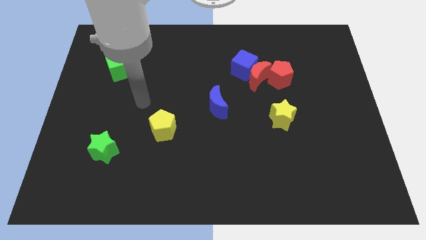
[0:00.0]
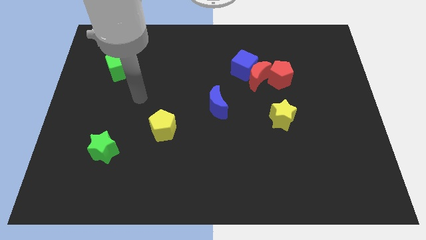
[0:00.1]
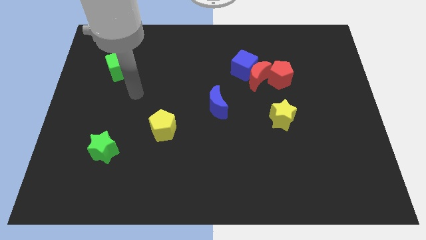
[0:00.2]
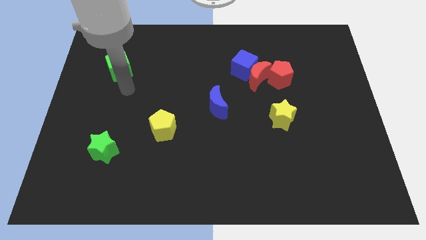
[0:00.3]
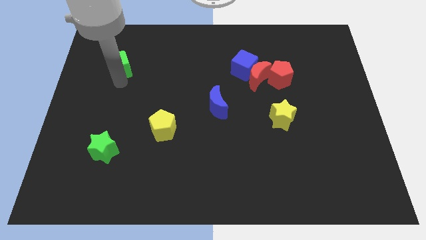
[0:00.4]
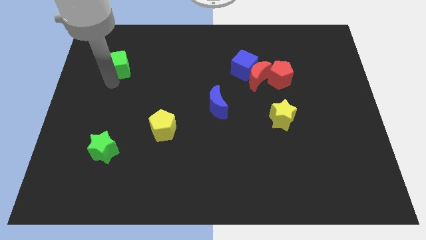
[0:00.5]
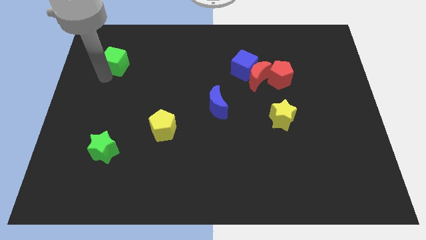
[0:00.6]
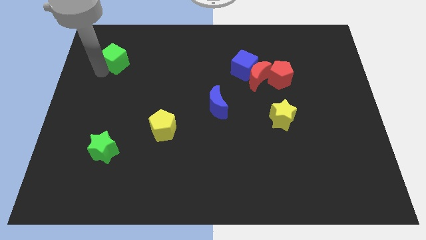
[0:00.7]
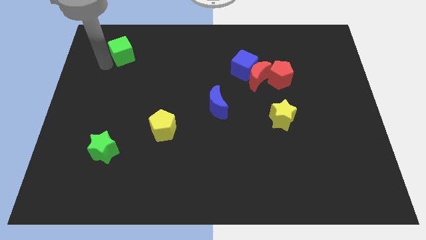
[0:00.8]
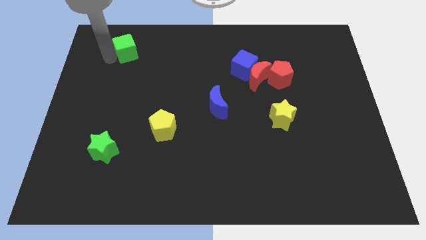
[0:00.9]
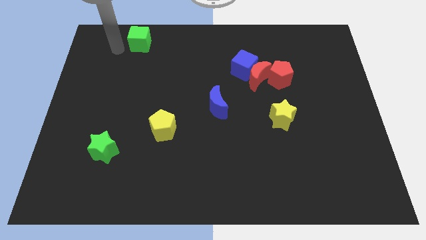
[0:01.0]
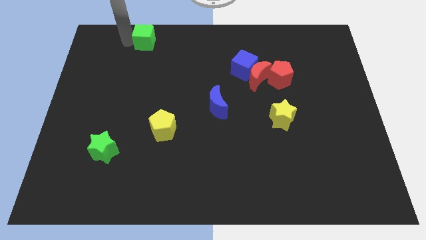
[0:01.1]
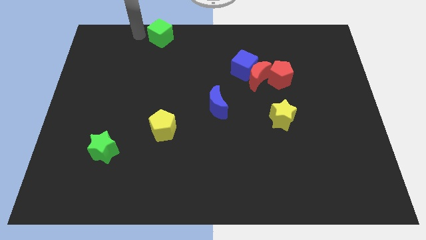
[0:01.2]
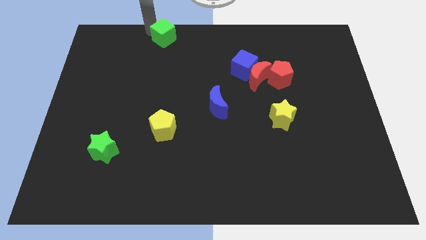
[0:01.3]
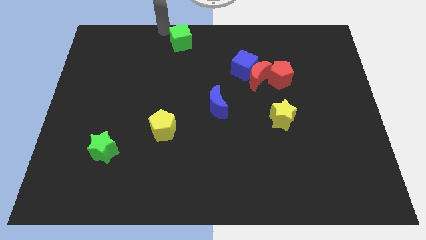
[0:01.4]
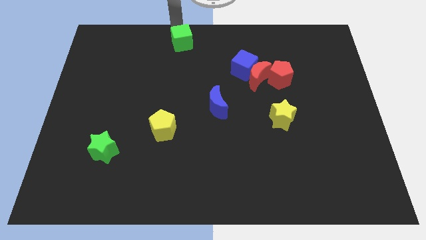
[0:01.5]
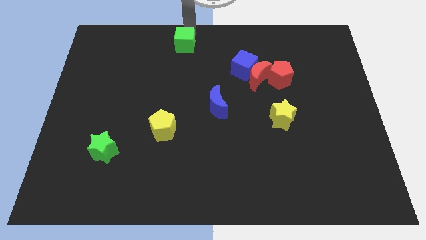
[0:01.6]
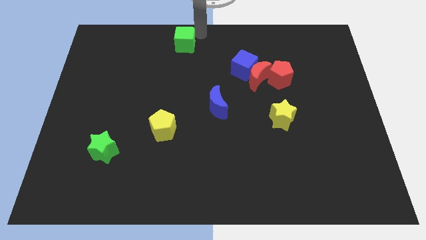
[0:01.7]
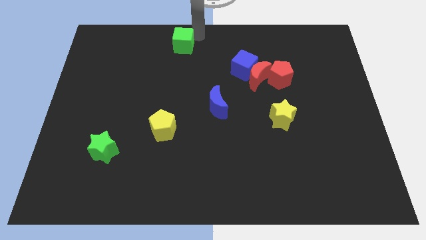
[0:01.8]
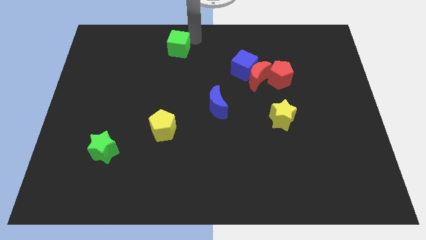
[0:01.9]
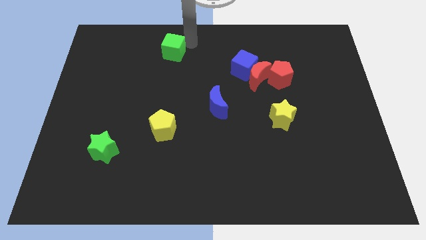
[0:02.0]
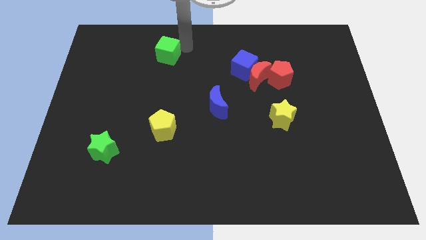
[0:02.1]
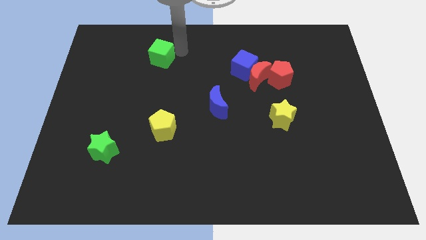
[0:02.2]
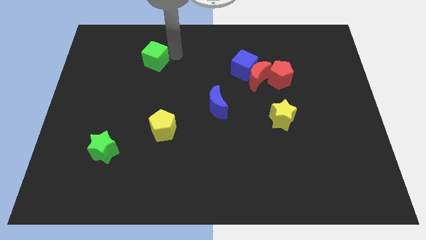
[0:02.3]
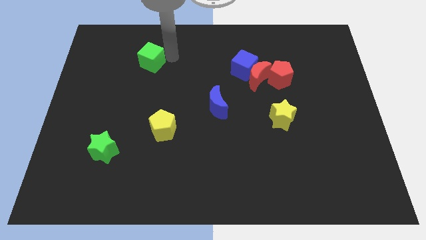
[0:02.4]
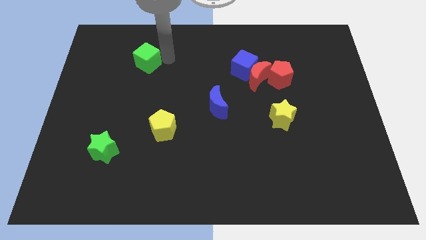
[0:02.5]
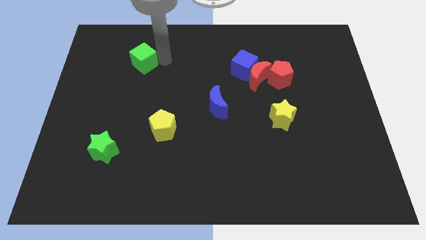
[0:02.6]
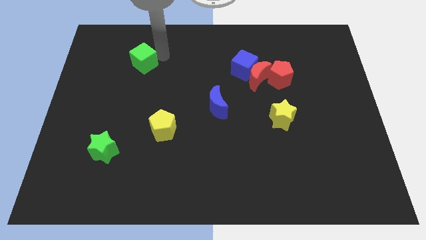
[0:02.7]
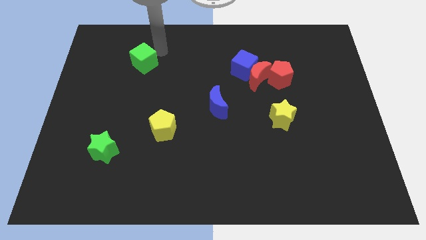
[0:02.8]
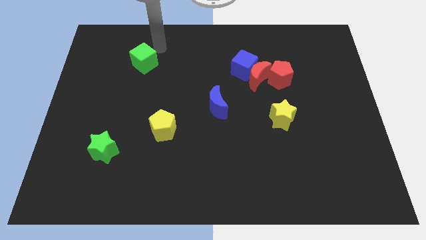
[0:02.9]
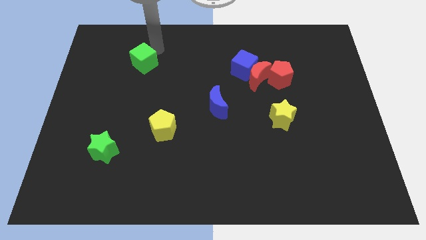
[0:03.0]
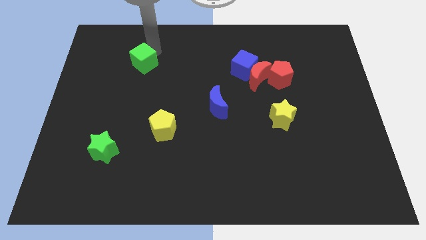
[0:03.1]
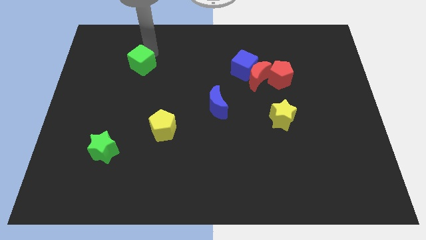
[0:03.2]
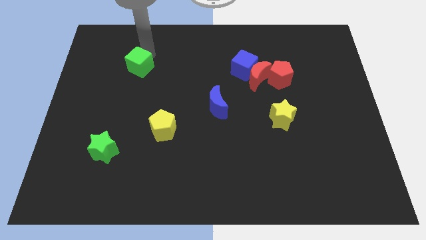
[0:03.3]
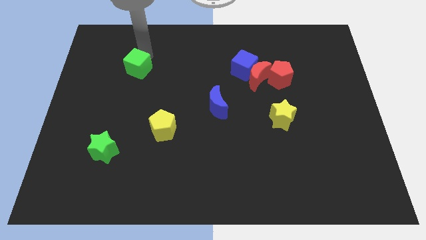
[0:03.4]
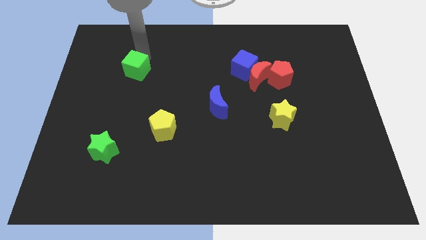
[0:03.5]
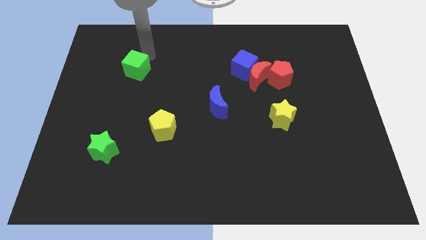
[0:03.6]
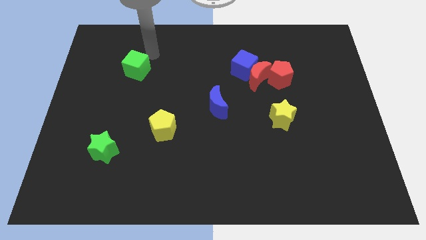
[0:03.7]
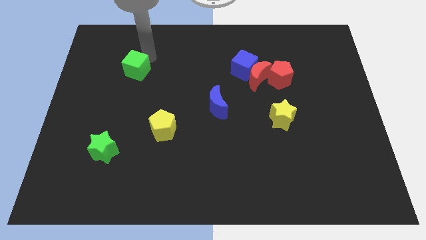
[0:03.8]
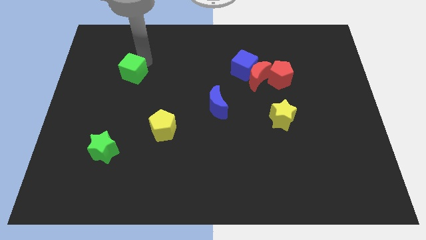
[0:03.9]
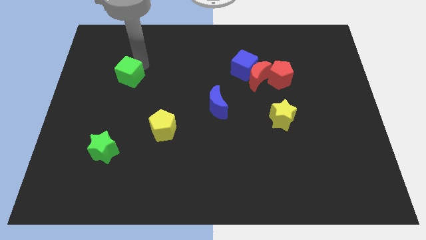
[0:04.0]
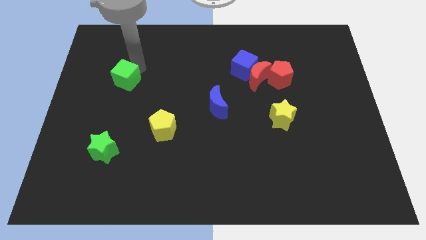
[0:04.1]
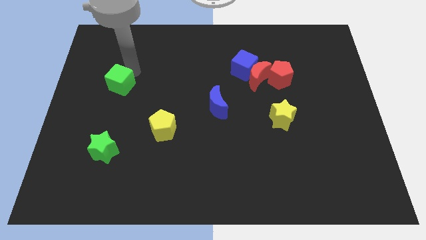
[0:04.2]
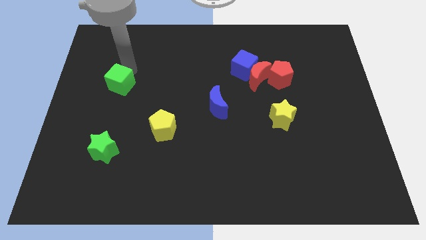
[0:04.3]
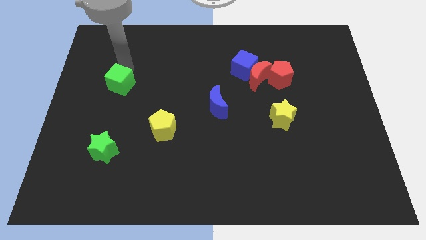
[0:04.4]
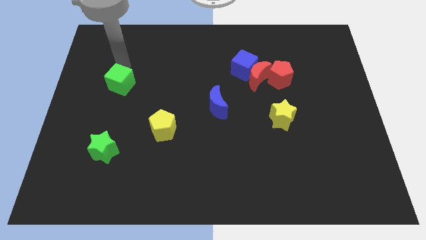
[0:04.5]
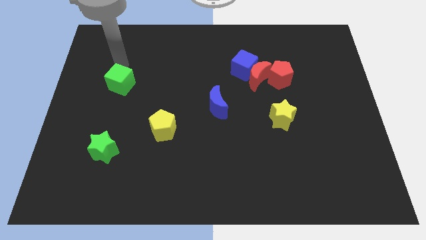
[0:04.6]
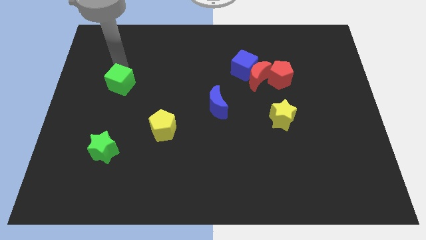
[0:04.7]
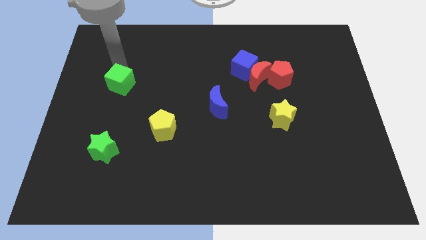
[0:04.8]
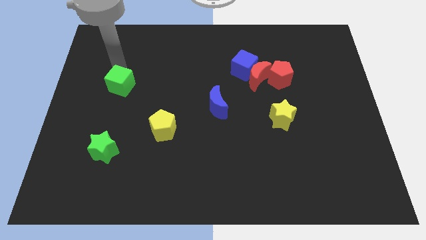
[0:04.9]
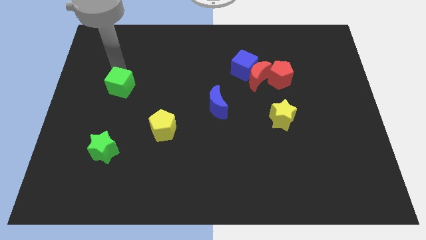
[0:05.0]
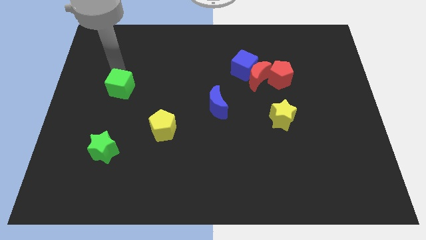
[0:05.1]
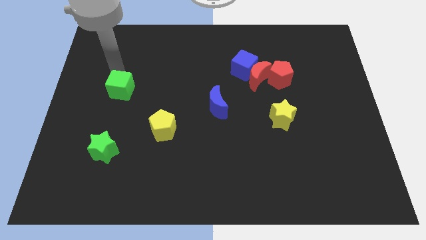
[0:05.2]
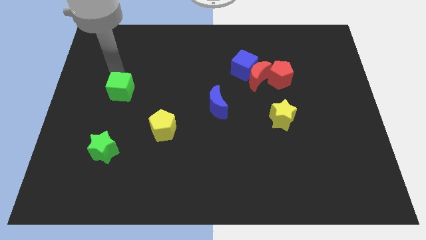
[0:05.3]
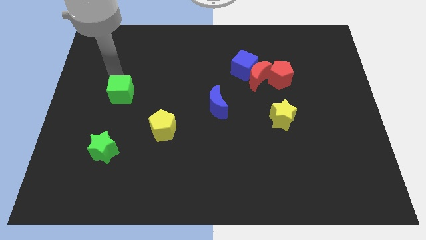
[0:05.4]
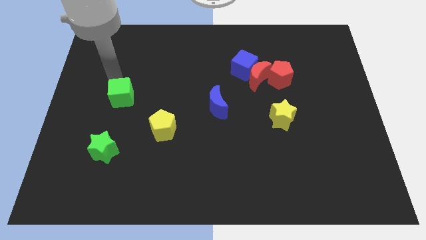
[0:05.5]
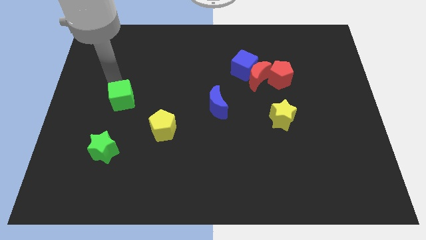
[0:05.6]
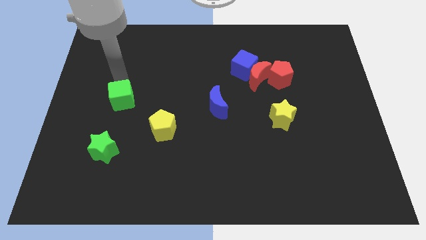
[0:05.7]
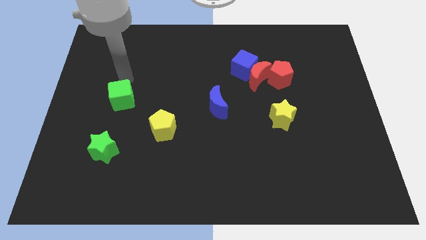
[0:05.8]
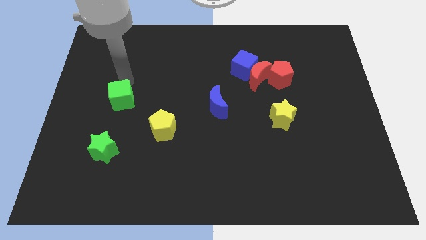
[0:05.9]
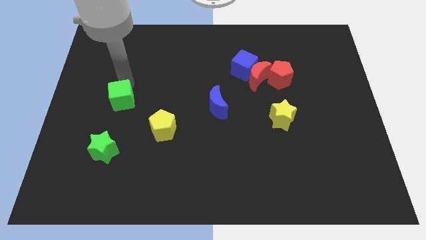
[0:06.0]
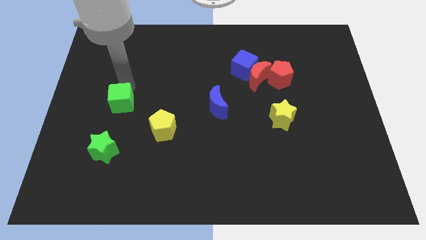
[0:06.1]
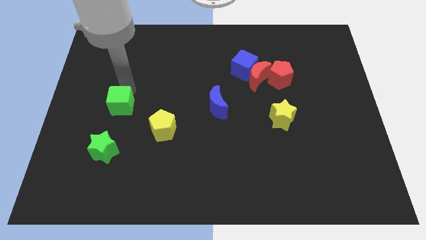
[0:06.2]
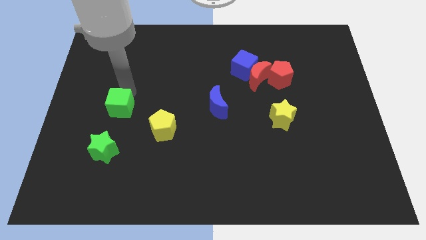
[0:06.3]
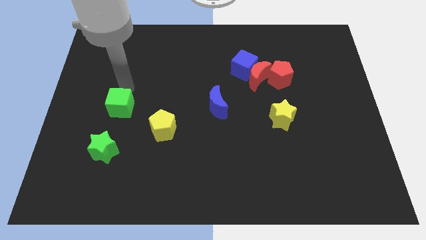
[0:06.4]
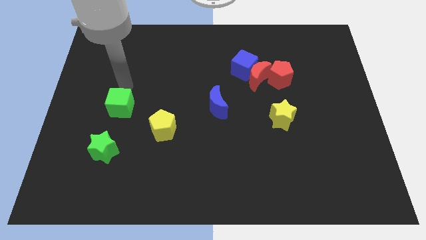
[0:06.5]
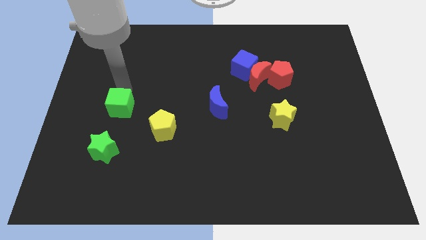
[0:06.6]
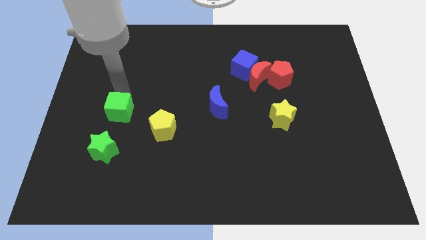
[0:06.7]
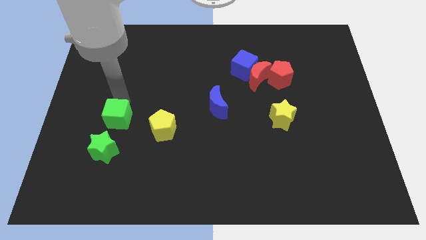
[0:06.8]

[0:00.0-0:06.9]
move the green cube just left of the yellow pentagon
